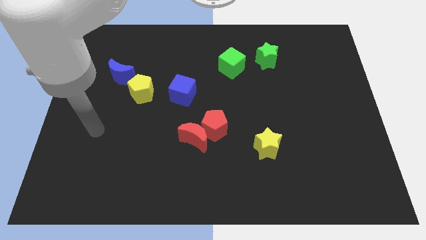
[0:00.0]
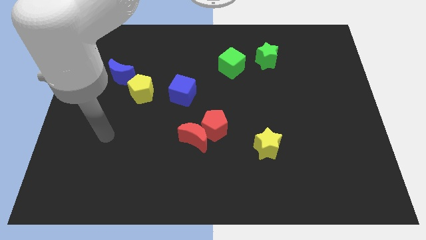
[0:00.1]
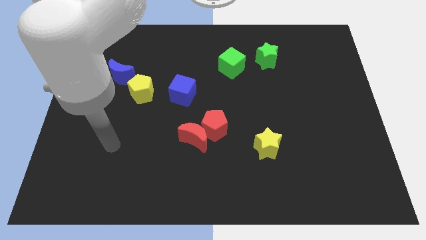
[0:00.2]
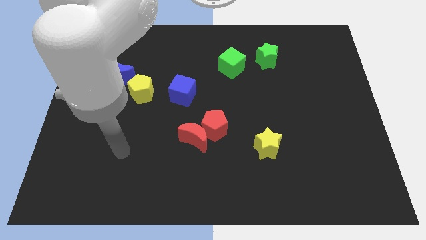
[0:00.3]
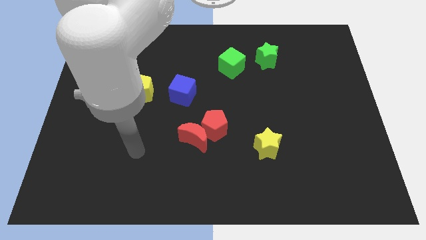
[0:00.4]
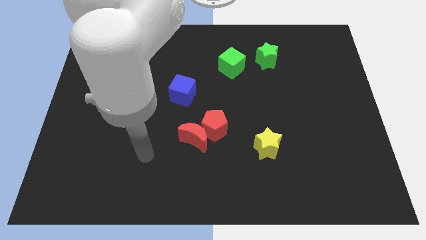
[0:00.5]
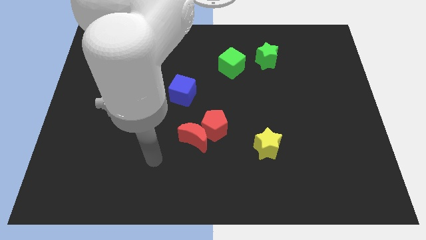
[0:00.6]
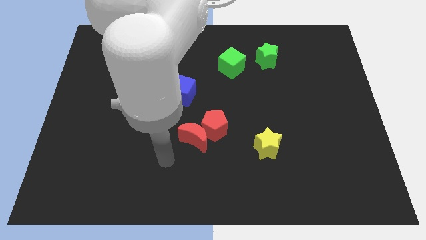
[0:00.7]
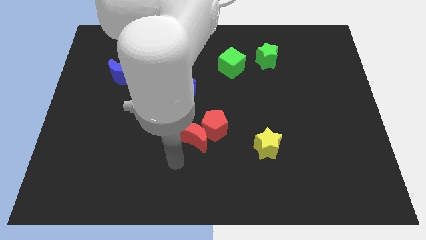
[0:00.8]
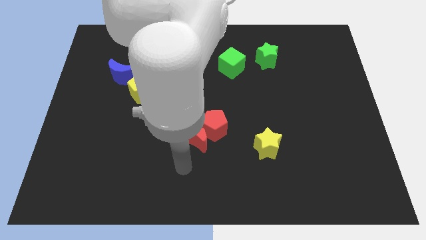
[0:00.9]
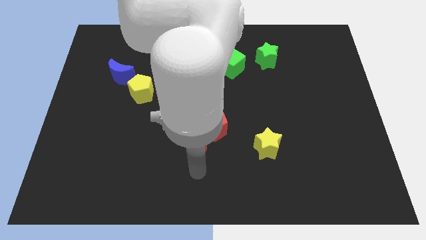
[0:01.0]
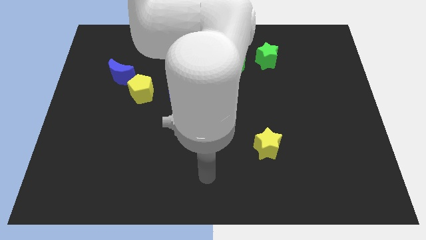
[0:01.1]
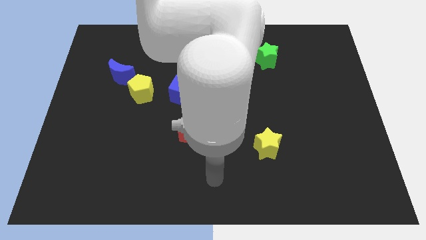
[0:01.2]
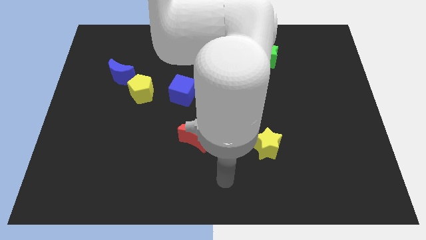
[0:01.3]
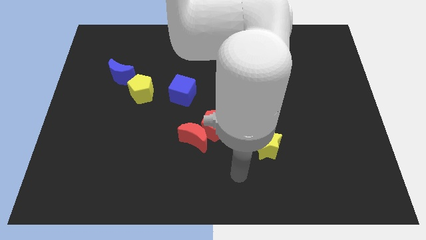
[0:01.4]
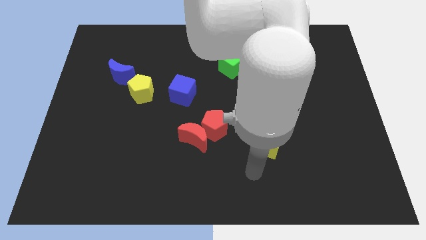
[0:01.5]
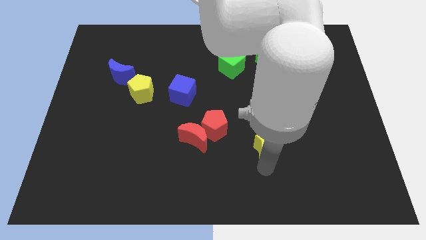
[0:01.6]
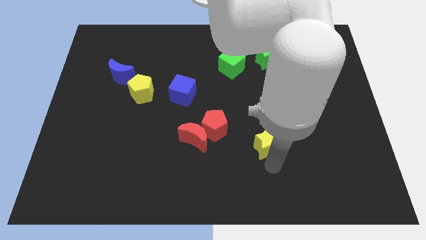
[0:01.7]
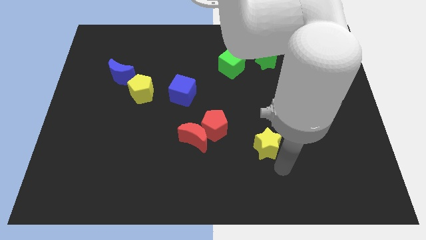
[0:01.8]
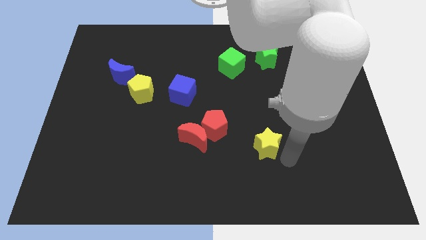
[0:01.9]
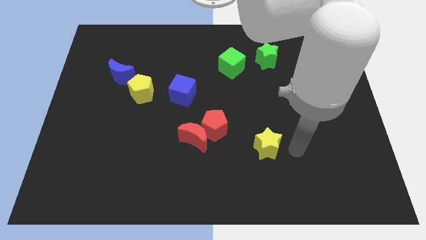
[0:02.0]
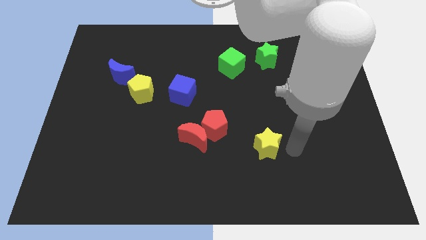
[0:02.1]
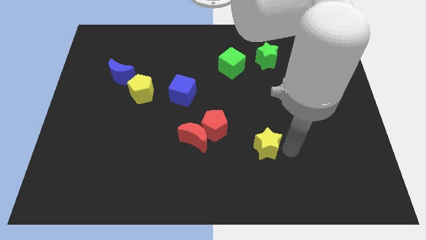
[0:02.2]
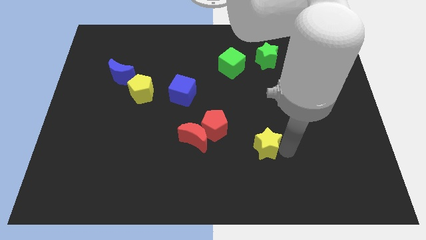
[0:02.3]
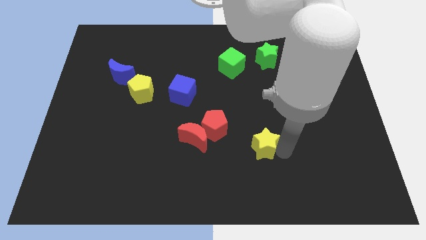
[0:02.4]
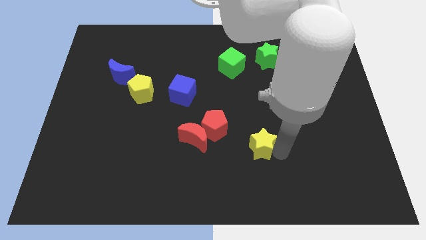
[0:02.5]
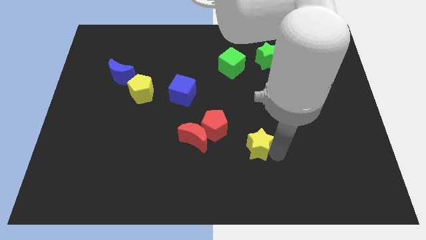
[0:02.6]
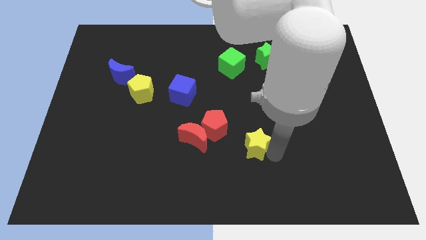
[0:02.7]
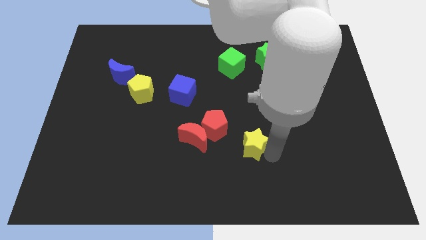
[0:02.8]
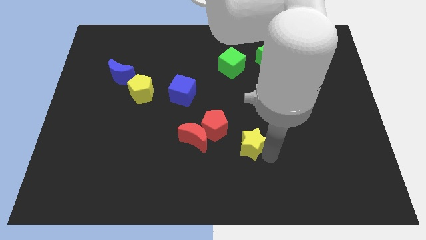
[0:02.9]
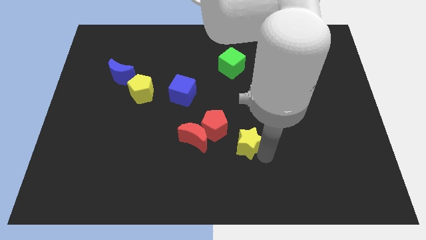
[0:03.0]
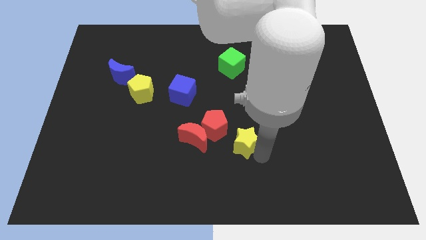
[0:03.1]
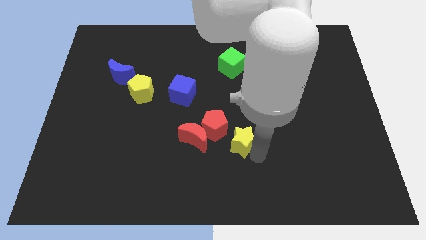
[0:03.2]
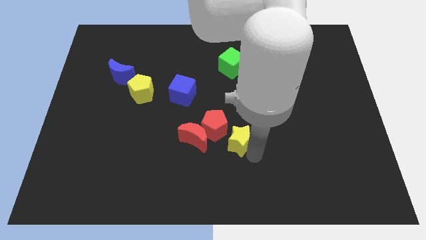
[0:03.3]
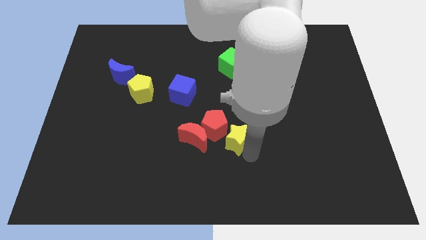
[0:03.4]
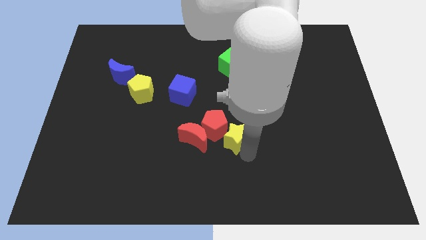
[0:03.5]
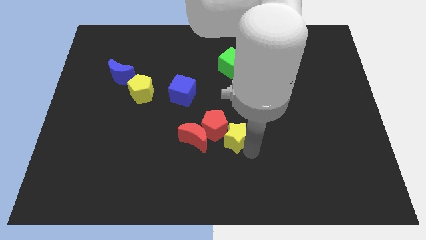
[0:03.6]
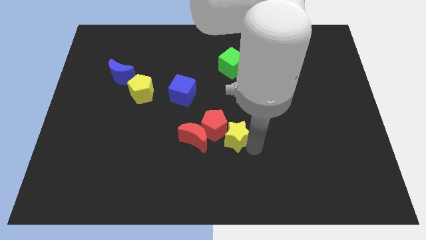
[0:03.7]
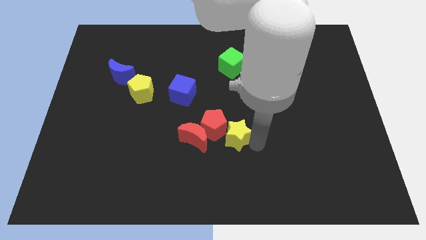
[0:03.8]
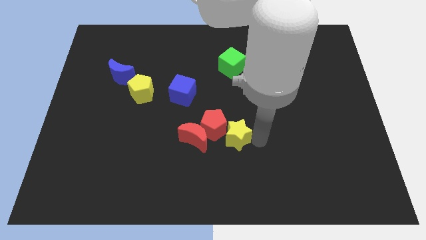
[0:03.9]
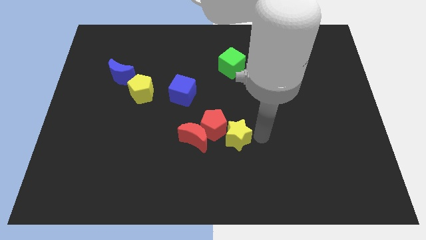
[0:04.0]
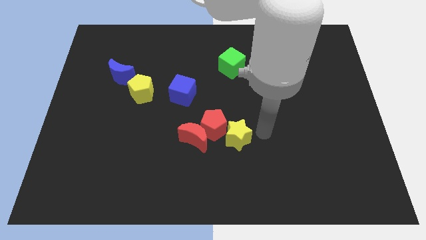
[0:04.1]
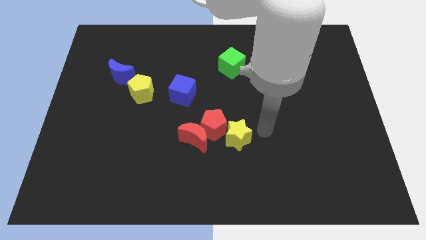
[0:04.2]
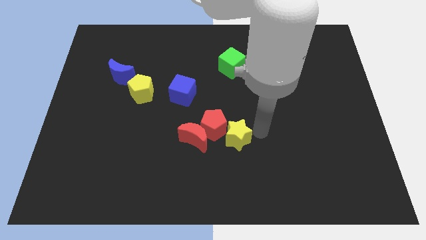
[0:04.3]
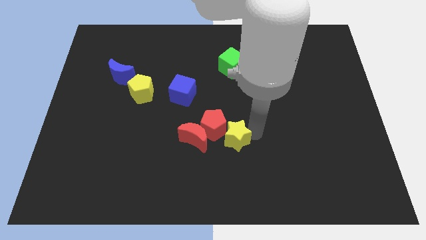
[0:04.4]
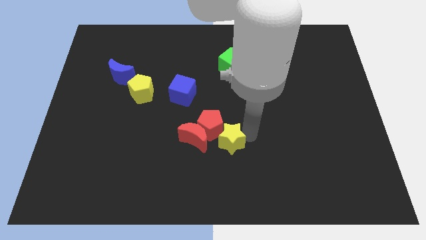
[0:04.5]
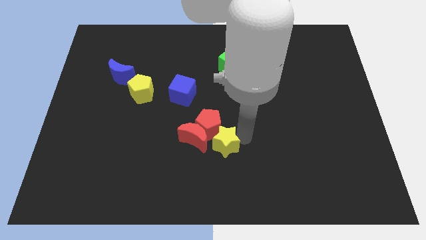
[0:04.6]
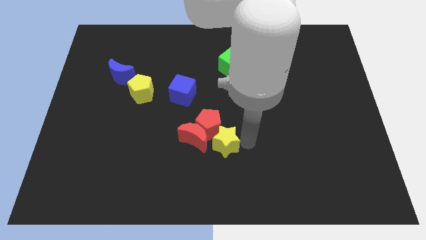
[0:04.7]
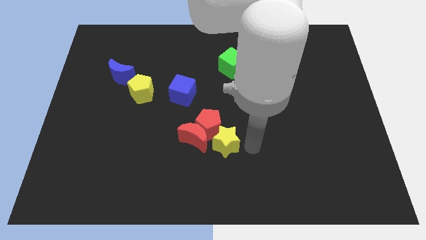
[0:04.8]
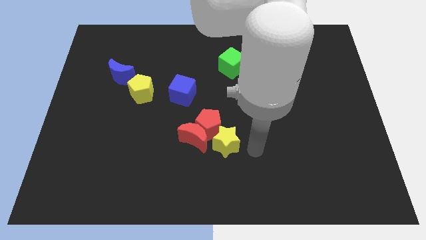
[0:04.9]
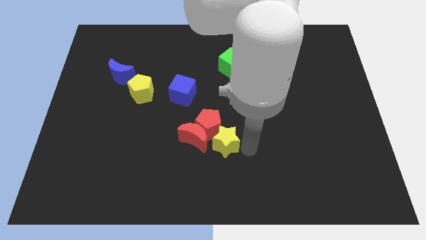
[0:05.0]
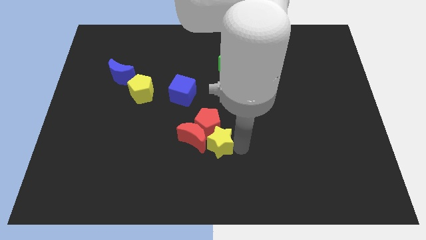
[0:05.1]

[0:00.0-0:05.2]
push the yellow star to the red moon

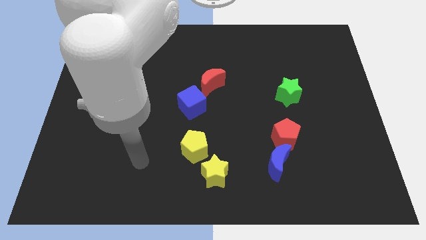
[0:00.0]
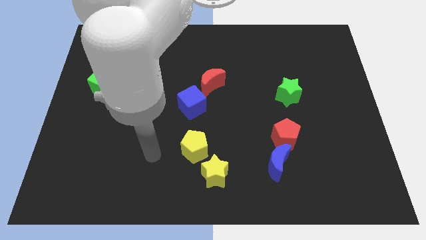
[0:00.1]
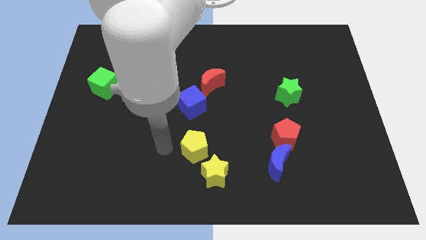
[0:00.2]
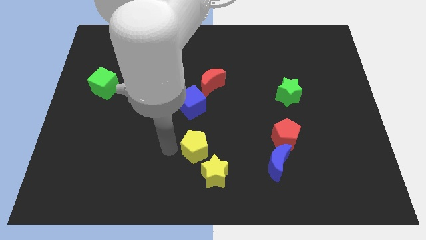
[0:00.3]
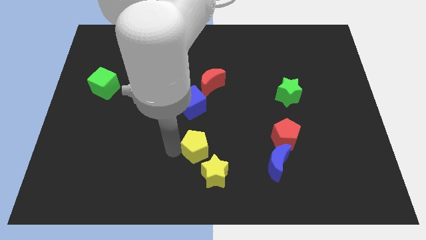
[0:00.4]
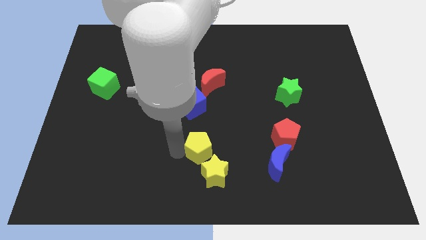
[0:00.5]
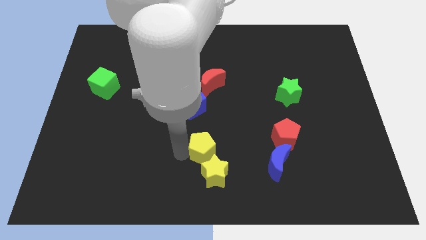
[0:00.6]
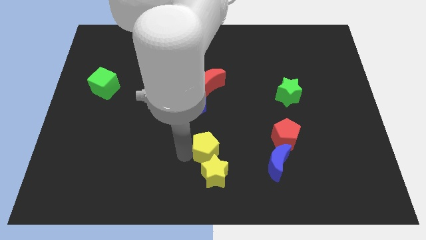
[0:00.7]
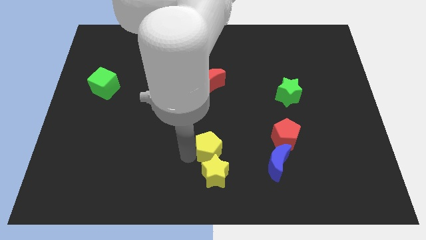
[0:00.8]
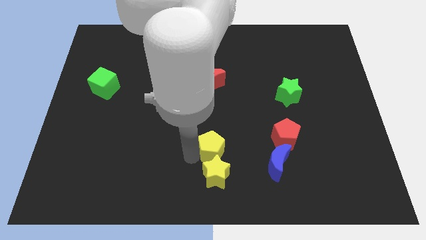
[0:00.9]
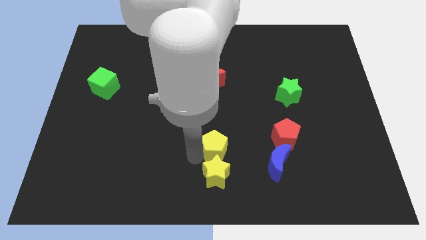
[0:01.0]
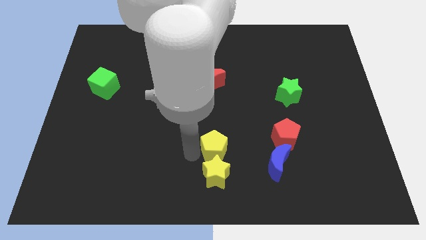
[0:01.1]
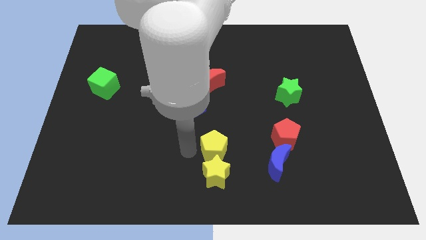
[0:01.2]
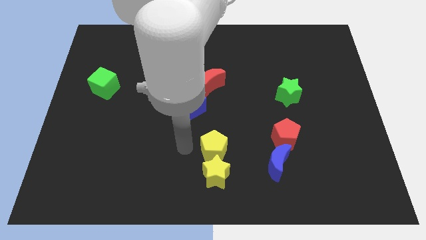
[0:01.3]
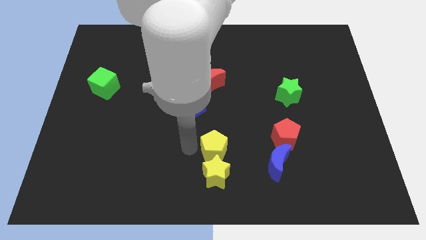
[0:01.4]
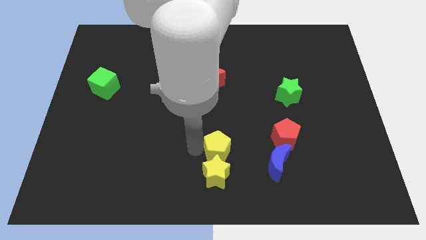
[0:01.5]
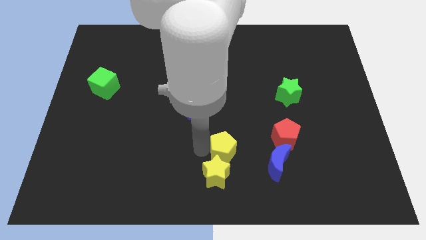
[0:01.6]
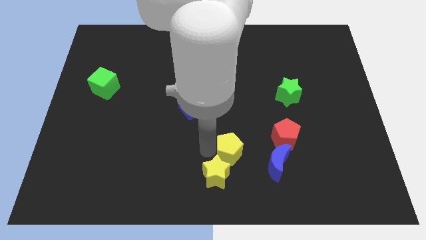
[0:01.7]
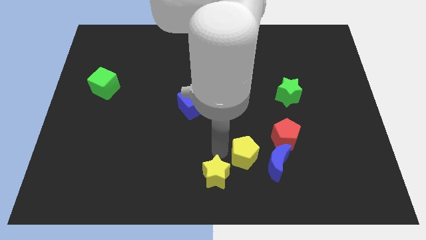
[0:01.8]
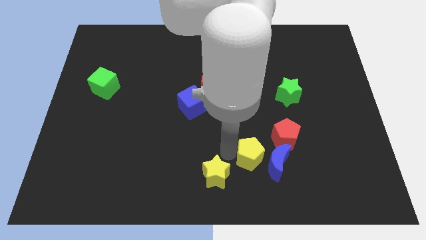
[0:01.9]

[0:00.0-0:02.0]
move the yellow pentagon close to the blue moon

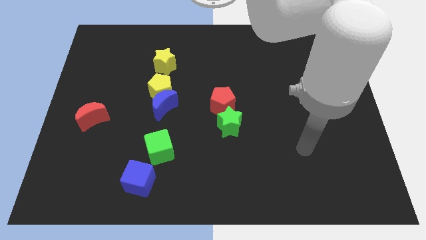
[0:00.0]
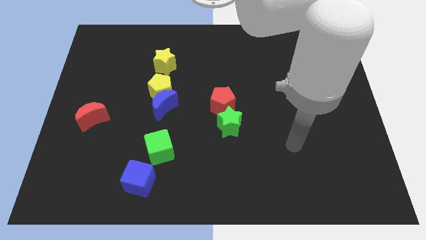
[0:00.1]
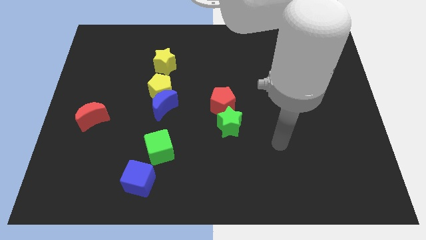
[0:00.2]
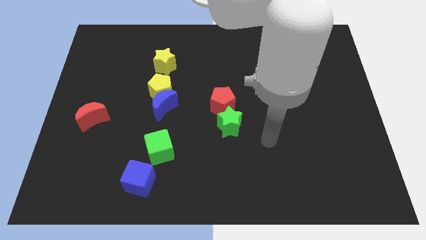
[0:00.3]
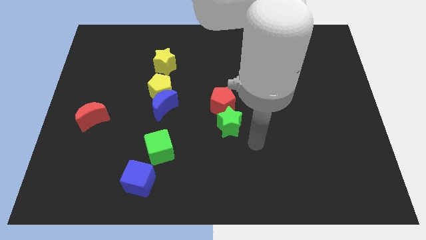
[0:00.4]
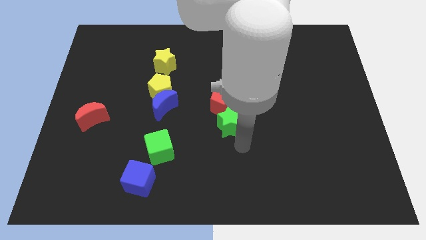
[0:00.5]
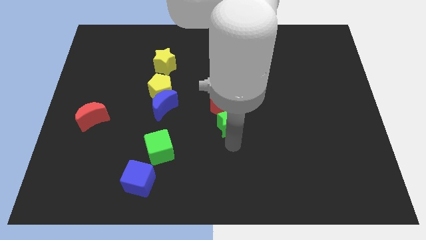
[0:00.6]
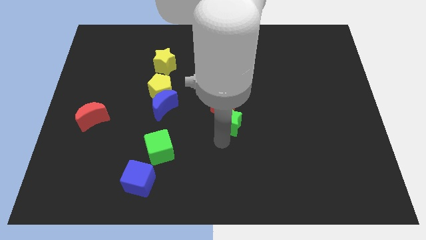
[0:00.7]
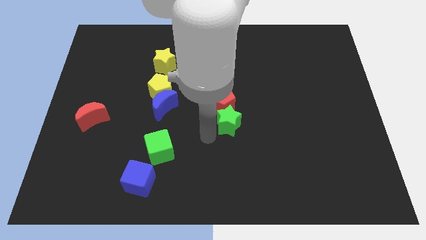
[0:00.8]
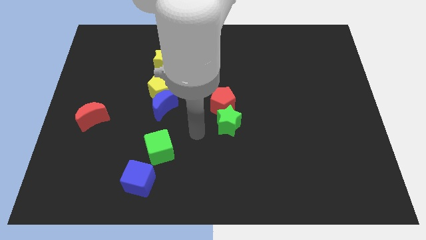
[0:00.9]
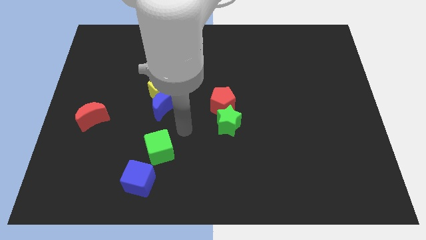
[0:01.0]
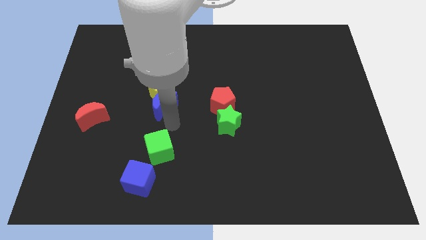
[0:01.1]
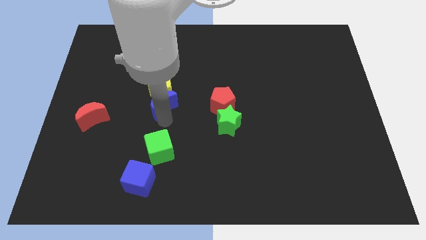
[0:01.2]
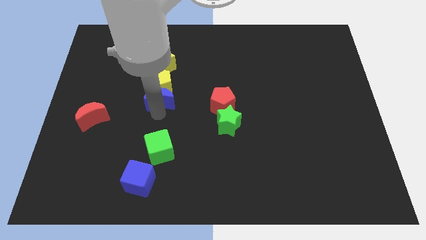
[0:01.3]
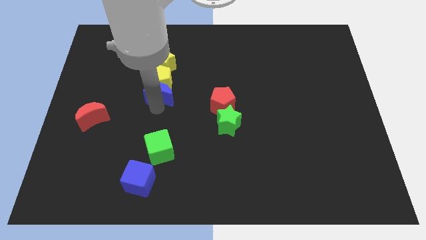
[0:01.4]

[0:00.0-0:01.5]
move the yellow pentagon towards the yellow star
